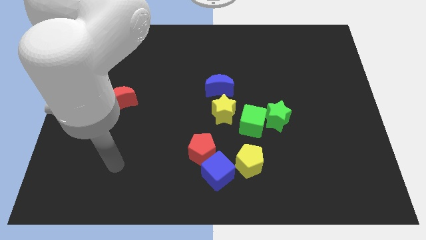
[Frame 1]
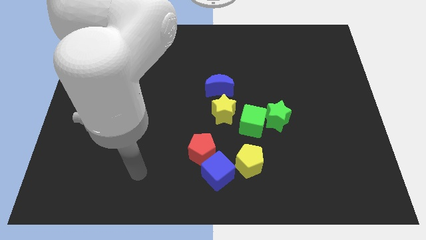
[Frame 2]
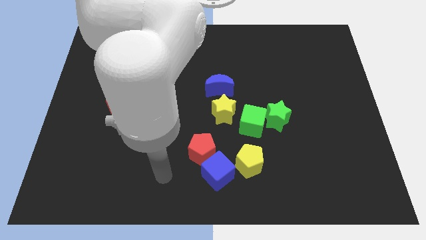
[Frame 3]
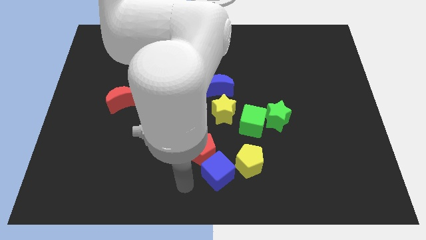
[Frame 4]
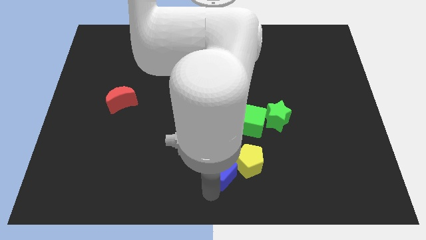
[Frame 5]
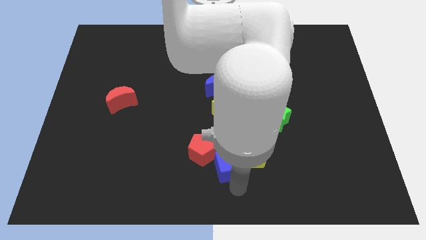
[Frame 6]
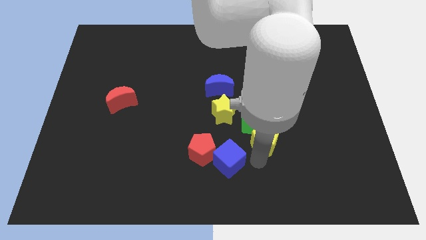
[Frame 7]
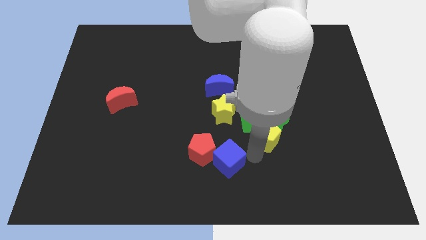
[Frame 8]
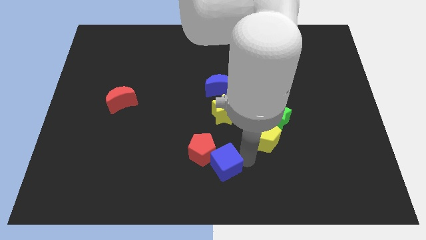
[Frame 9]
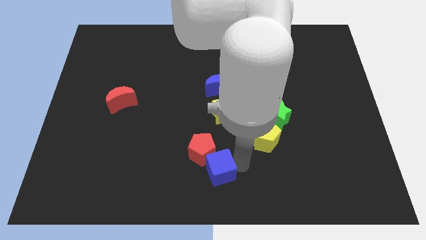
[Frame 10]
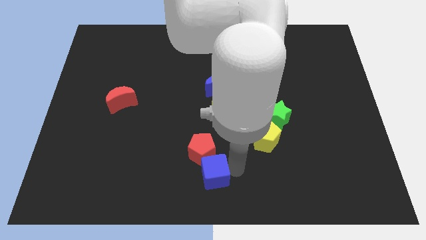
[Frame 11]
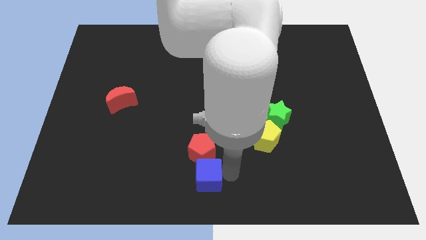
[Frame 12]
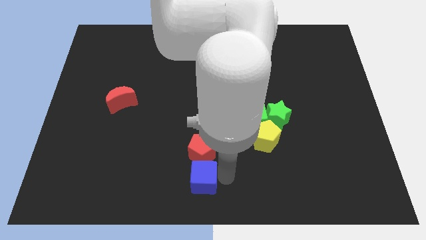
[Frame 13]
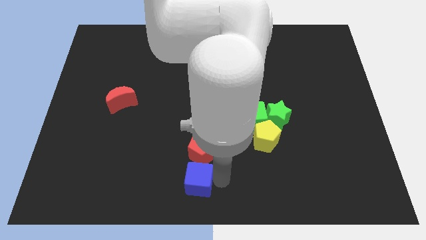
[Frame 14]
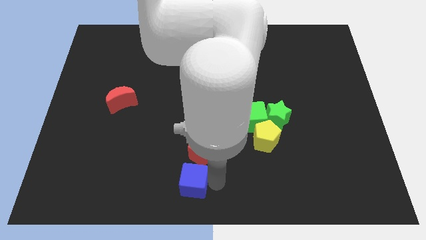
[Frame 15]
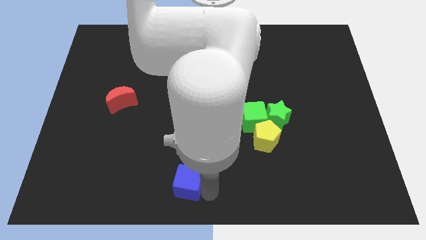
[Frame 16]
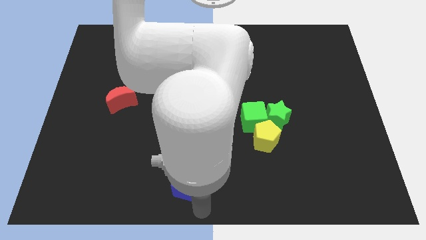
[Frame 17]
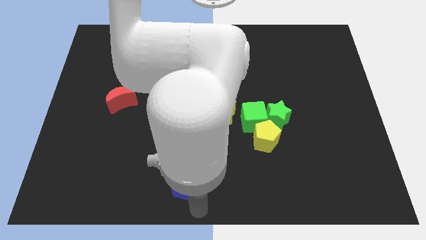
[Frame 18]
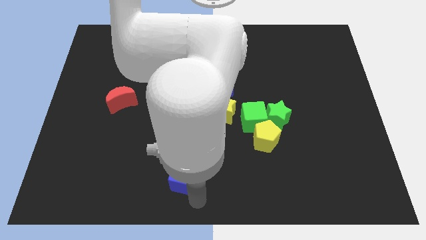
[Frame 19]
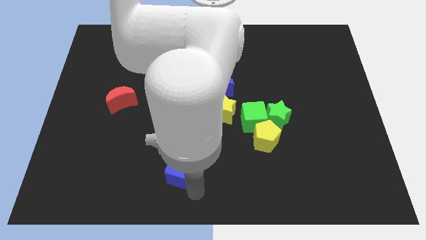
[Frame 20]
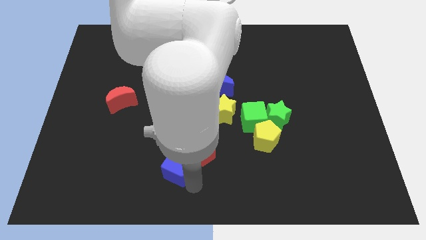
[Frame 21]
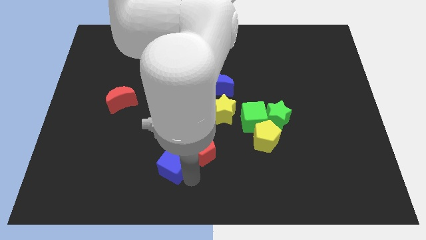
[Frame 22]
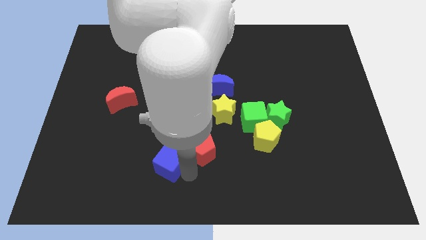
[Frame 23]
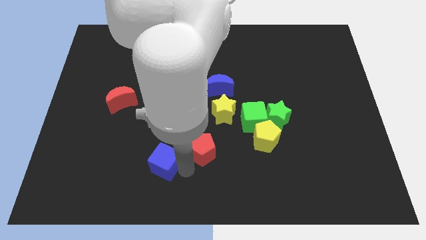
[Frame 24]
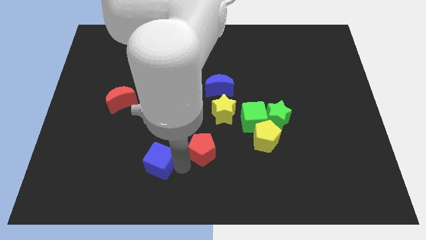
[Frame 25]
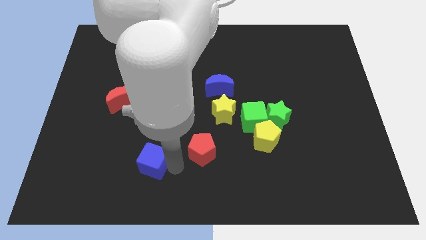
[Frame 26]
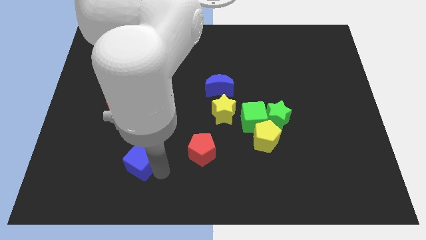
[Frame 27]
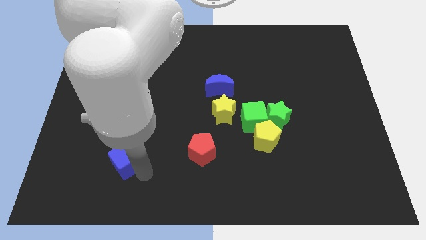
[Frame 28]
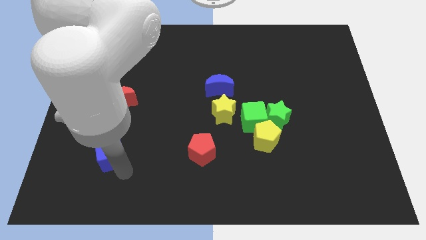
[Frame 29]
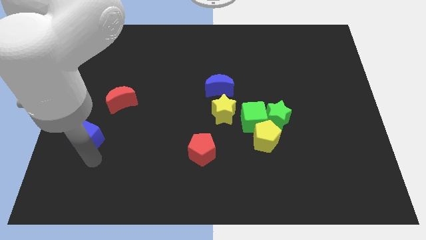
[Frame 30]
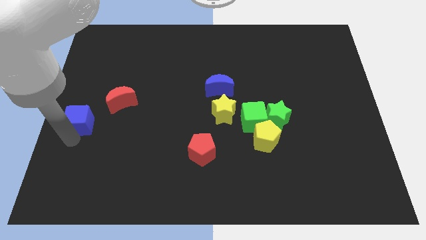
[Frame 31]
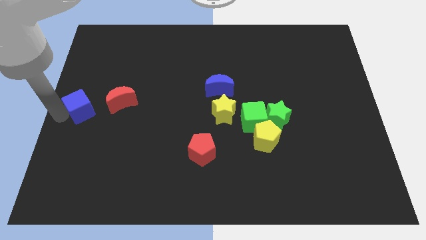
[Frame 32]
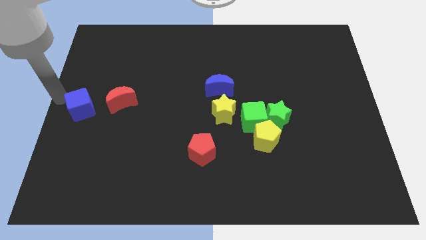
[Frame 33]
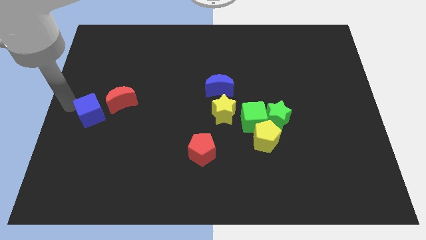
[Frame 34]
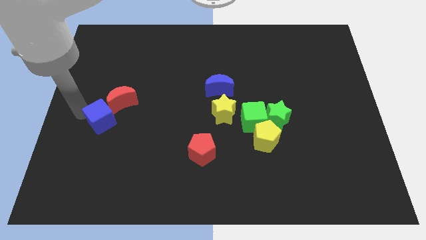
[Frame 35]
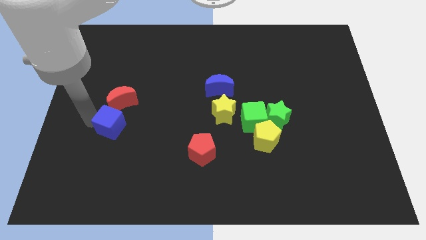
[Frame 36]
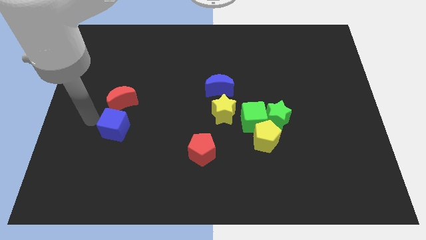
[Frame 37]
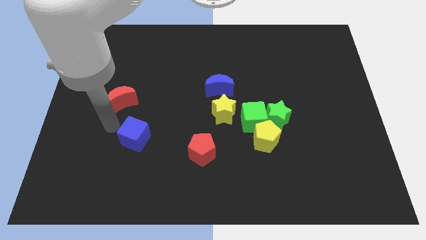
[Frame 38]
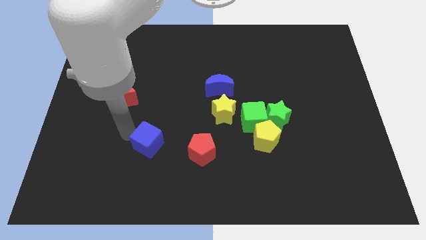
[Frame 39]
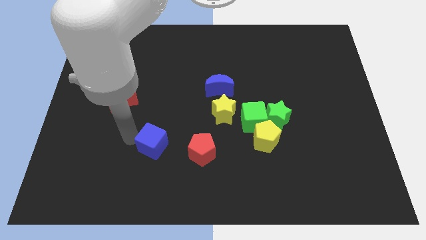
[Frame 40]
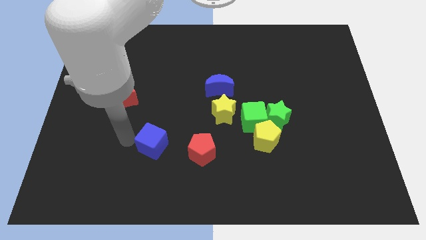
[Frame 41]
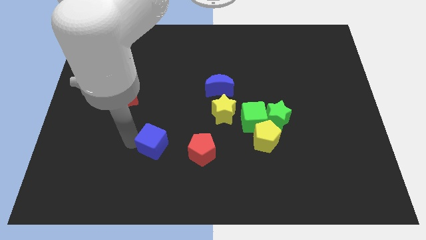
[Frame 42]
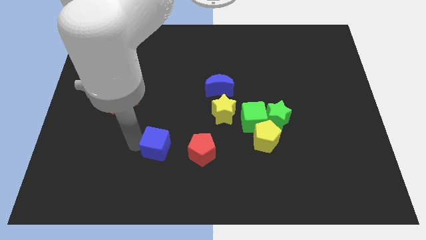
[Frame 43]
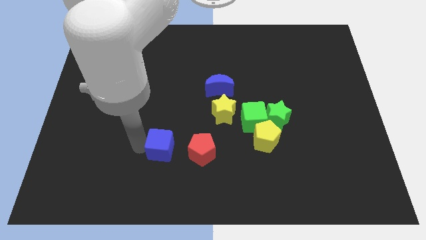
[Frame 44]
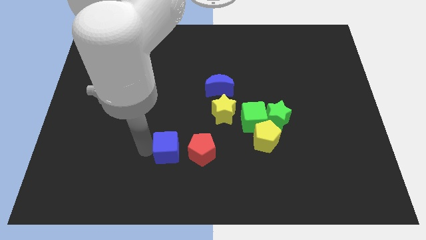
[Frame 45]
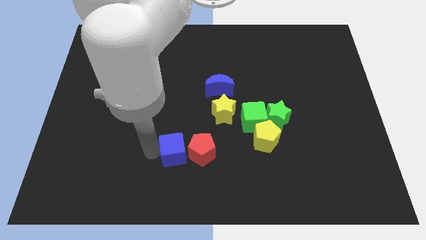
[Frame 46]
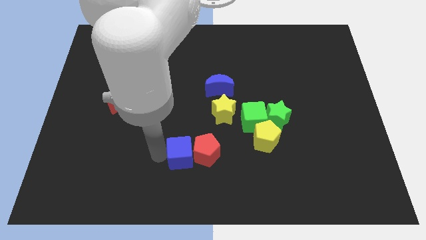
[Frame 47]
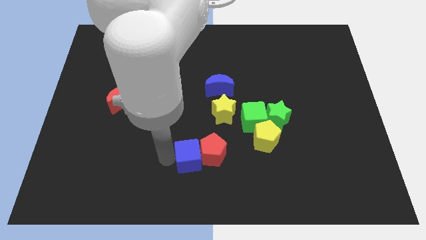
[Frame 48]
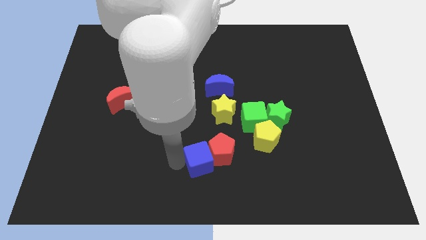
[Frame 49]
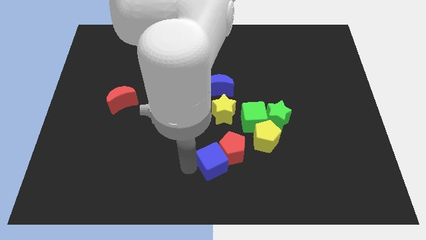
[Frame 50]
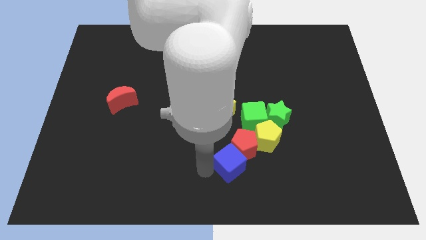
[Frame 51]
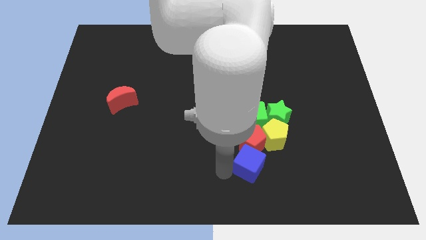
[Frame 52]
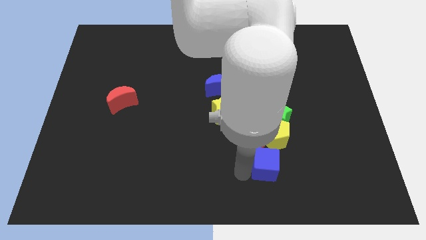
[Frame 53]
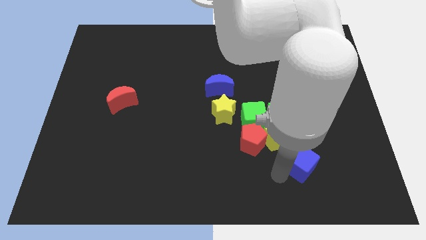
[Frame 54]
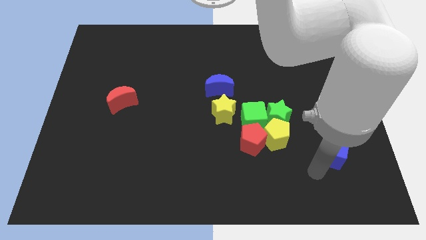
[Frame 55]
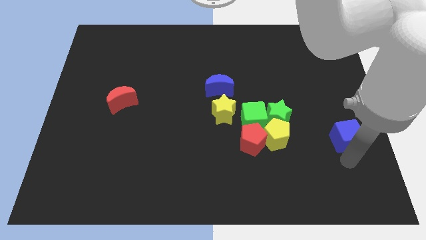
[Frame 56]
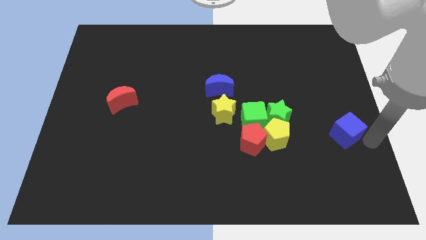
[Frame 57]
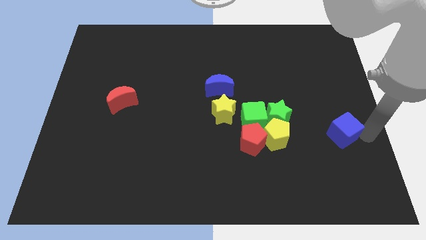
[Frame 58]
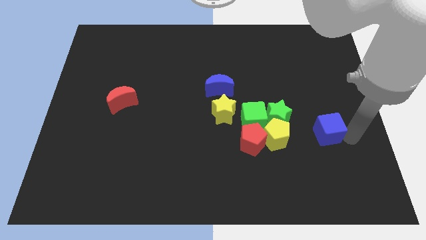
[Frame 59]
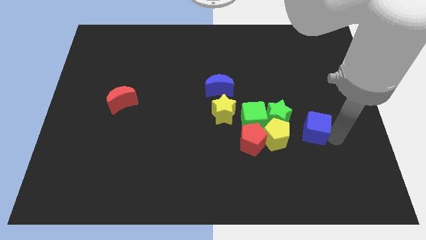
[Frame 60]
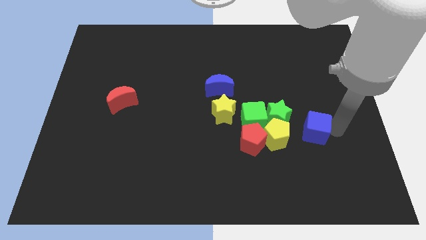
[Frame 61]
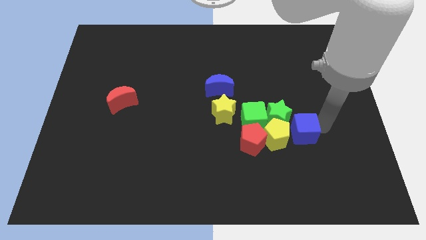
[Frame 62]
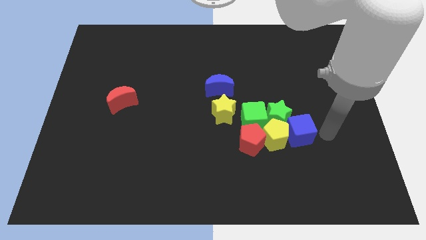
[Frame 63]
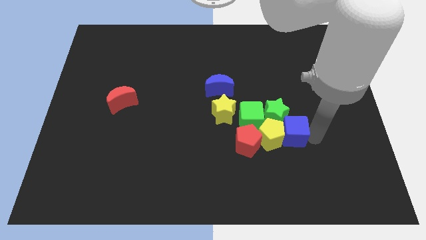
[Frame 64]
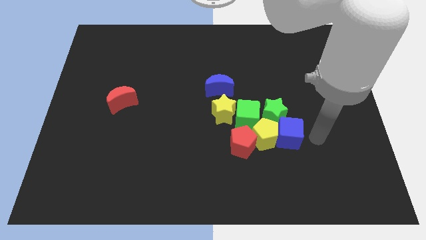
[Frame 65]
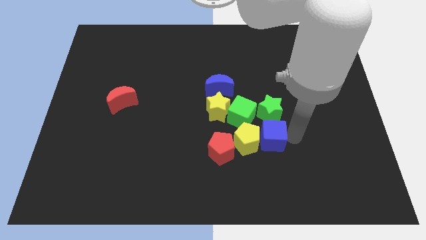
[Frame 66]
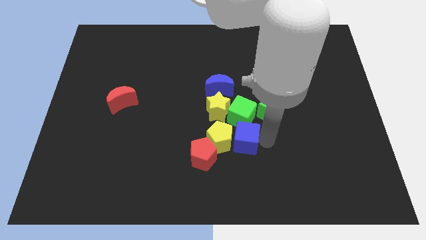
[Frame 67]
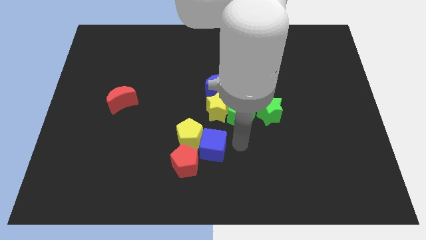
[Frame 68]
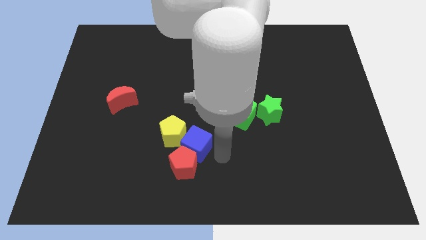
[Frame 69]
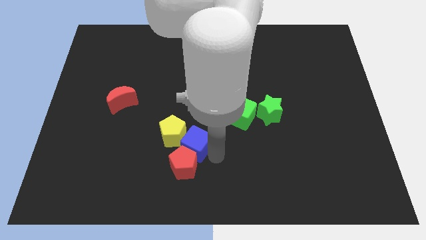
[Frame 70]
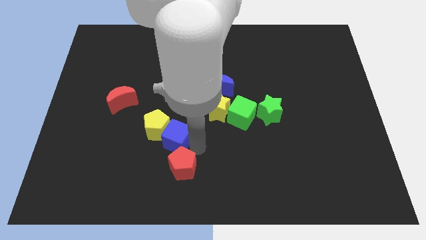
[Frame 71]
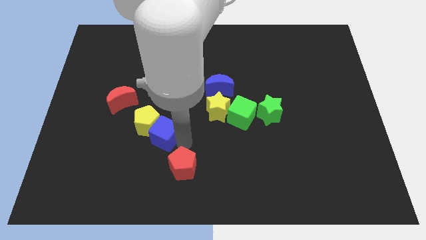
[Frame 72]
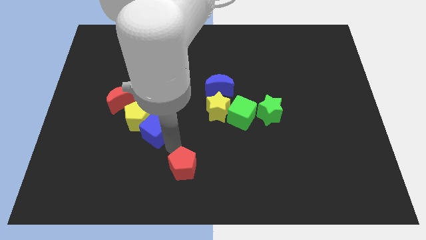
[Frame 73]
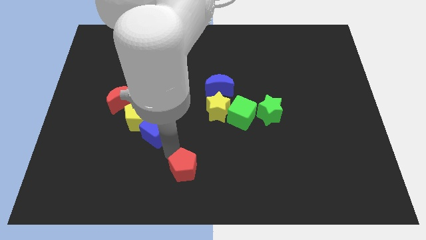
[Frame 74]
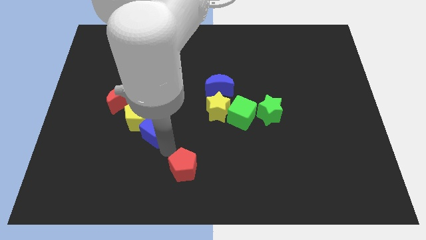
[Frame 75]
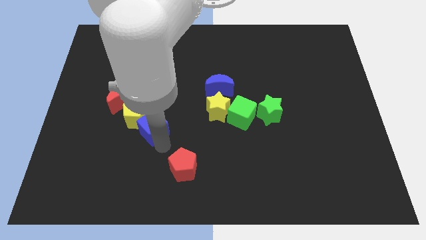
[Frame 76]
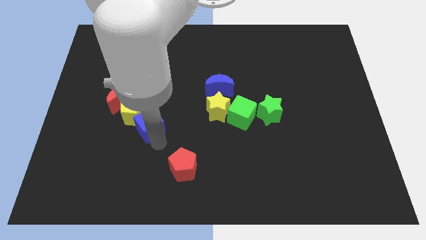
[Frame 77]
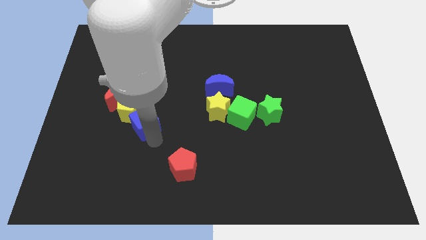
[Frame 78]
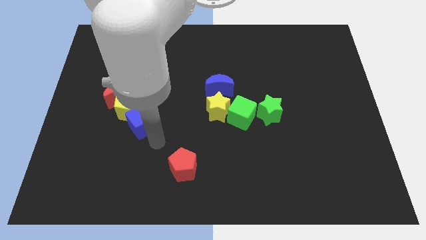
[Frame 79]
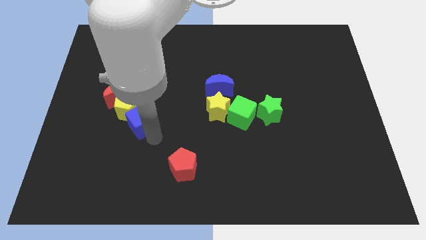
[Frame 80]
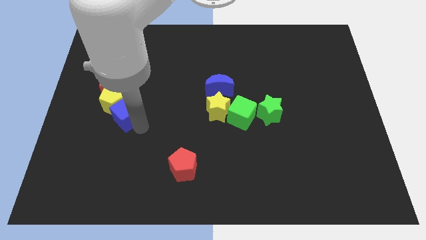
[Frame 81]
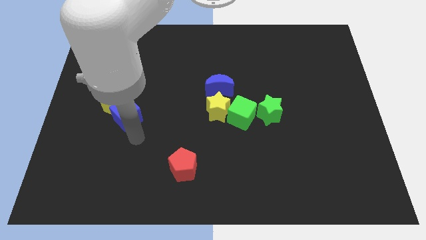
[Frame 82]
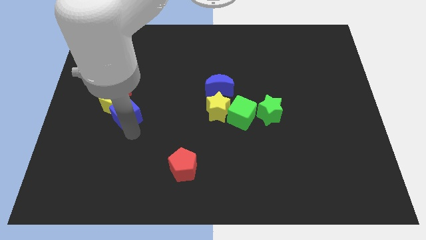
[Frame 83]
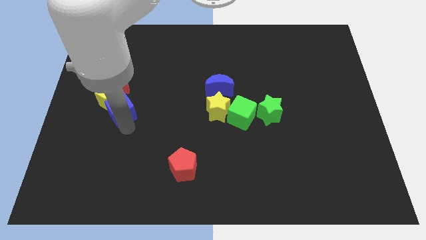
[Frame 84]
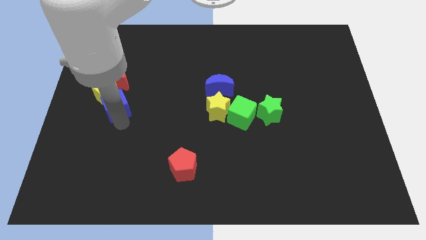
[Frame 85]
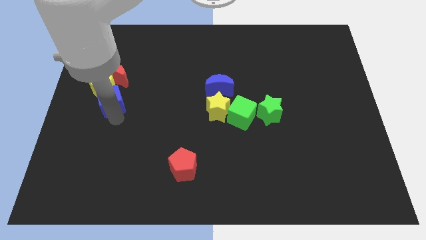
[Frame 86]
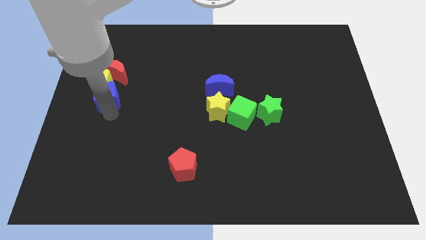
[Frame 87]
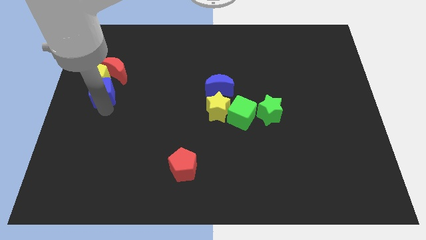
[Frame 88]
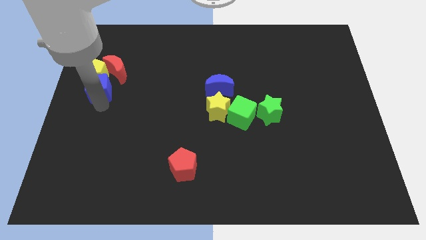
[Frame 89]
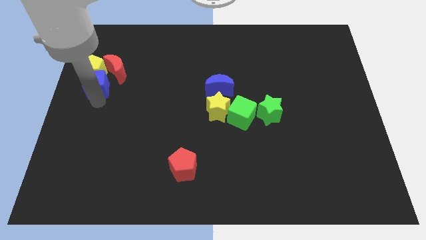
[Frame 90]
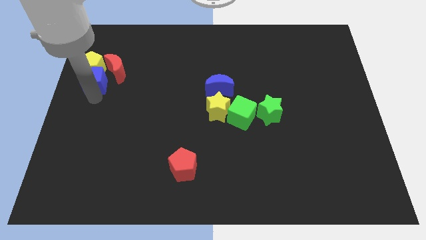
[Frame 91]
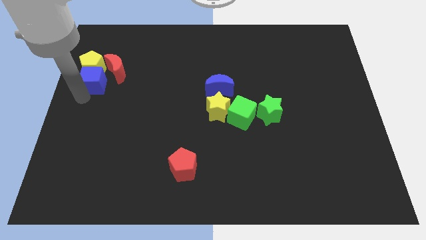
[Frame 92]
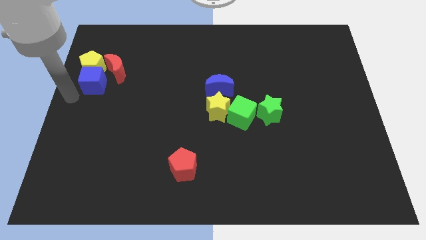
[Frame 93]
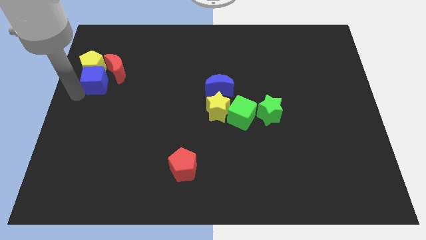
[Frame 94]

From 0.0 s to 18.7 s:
push the blue cube towards the red moon
